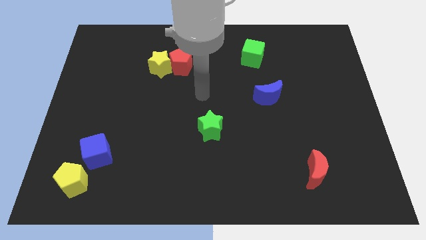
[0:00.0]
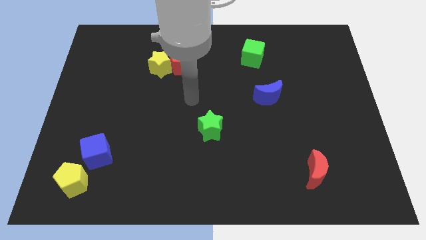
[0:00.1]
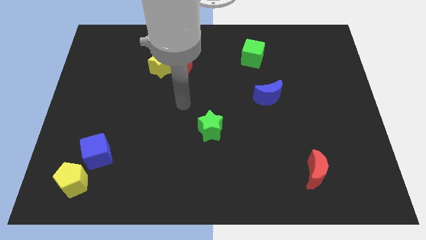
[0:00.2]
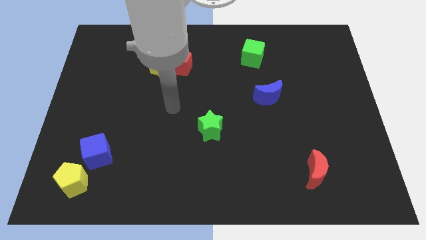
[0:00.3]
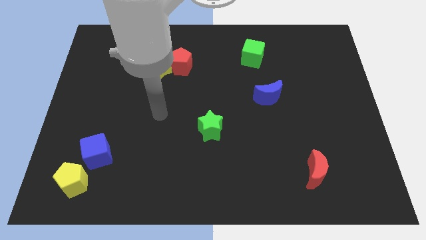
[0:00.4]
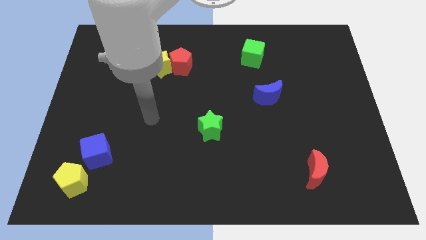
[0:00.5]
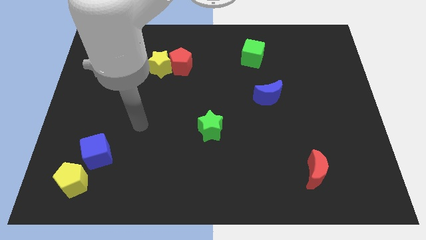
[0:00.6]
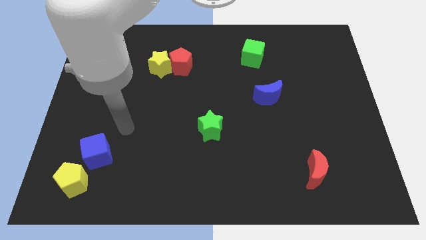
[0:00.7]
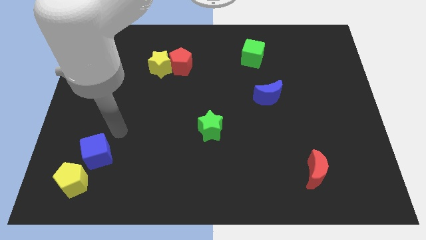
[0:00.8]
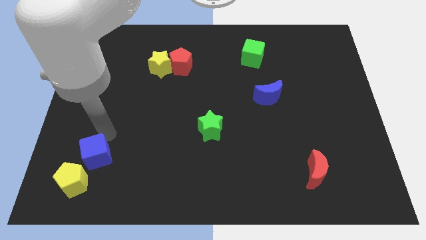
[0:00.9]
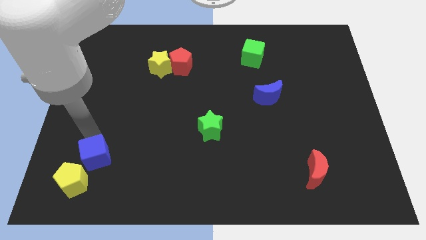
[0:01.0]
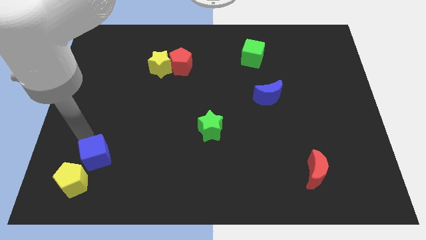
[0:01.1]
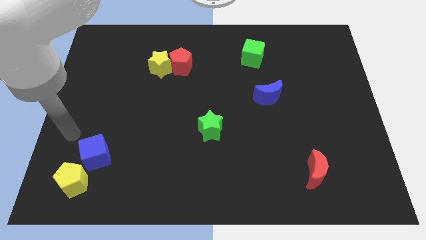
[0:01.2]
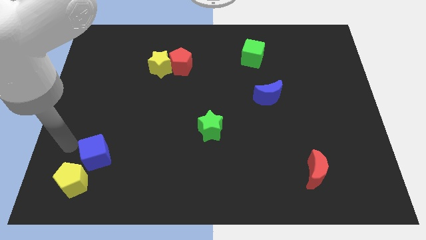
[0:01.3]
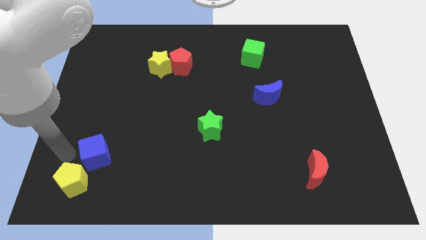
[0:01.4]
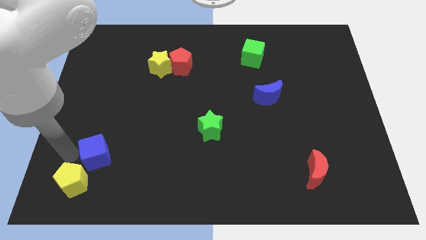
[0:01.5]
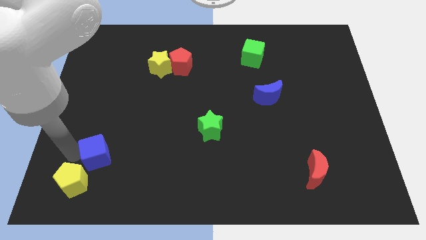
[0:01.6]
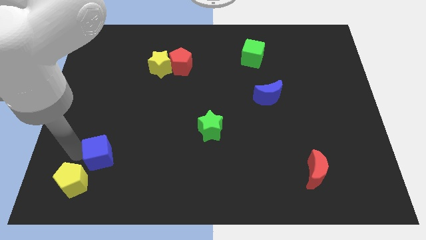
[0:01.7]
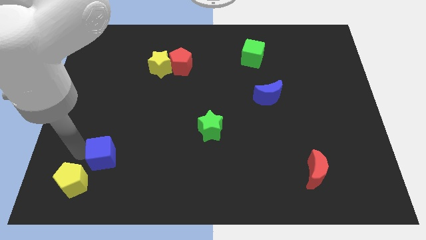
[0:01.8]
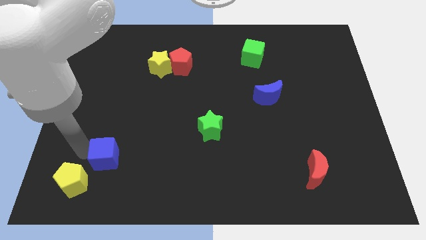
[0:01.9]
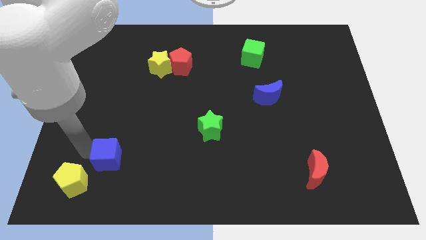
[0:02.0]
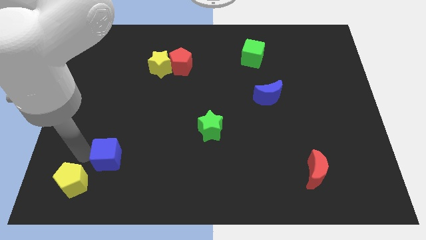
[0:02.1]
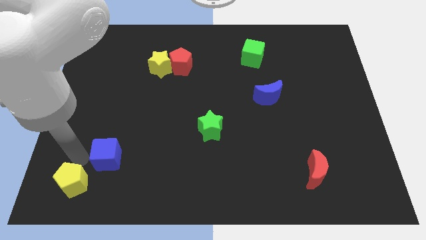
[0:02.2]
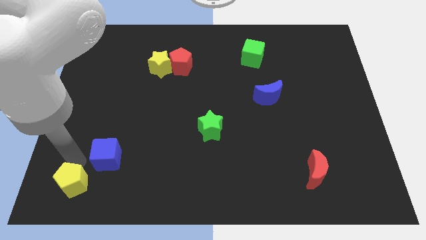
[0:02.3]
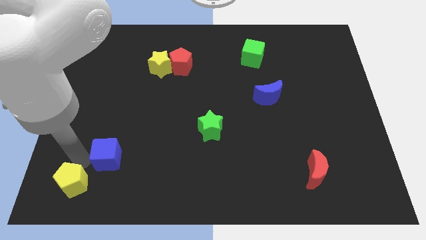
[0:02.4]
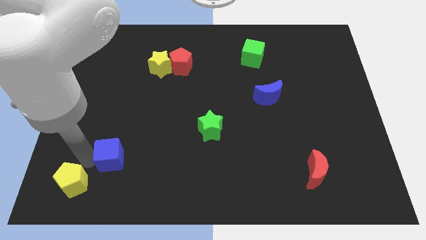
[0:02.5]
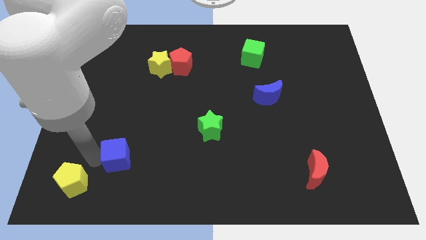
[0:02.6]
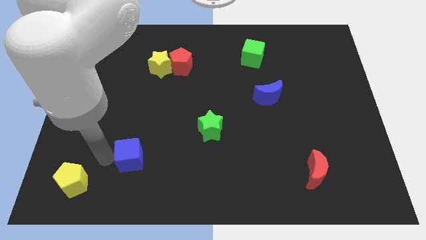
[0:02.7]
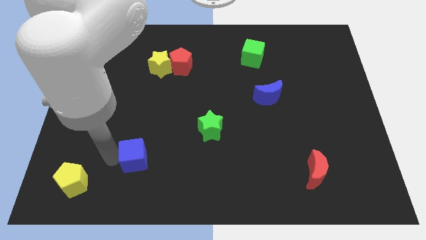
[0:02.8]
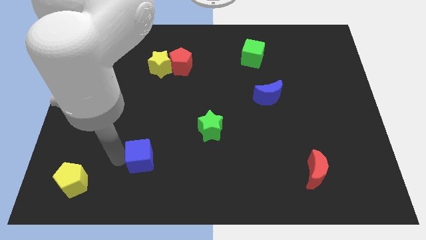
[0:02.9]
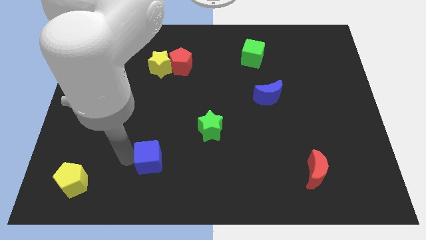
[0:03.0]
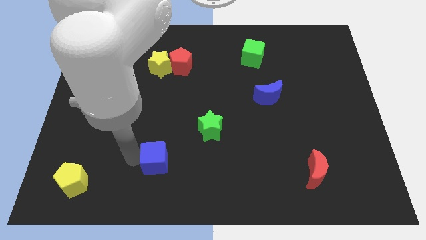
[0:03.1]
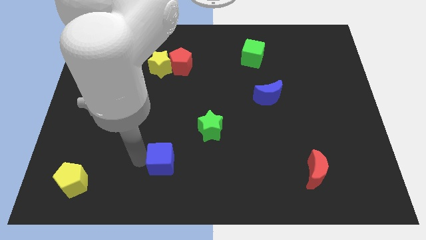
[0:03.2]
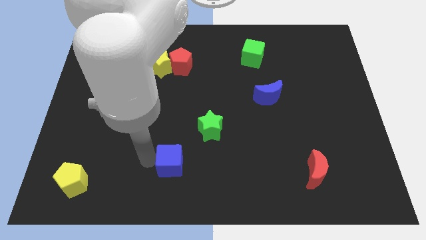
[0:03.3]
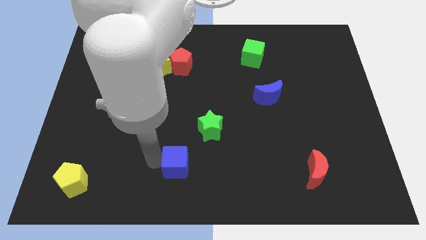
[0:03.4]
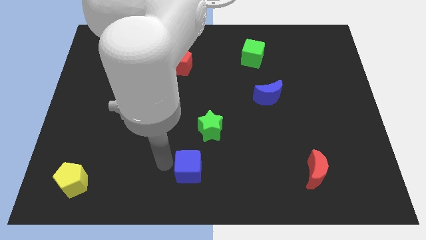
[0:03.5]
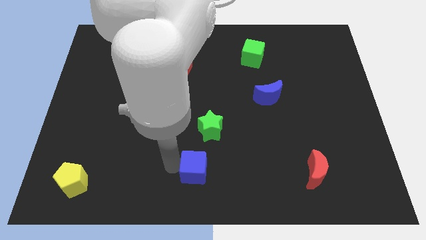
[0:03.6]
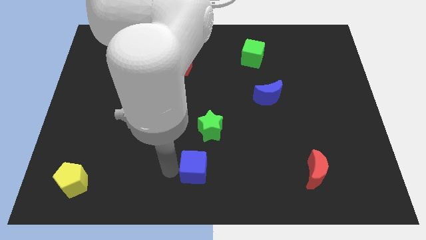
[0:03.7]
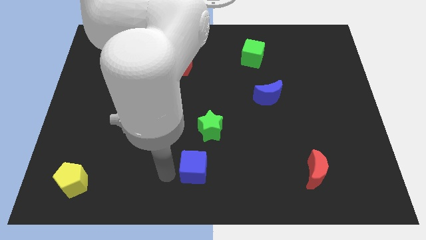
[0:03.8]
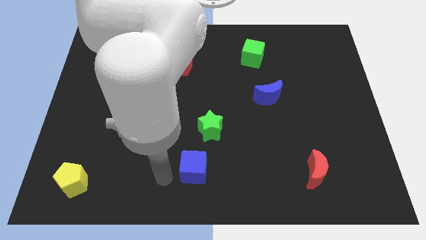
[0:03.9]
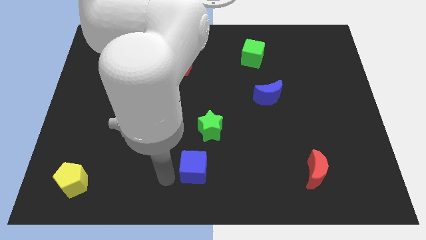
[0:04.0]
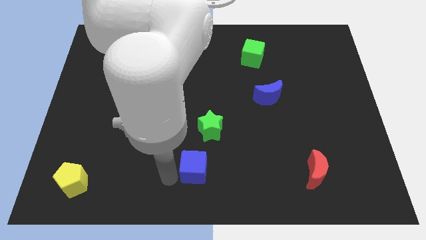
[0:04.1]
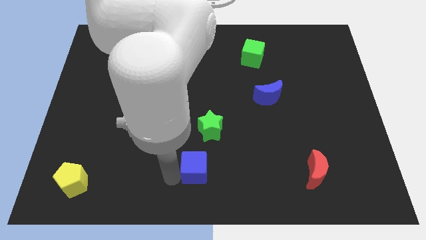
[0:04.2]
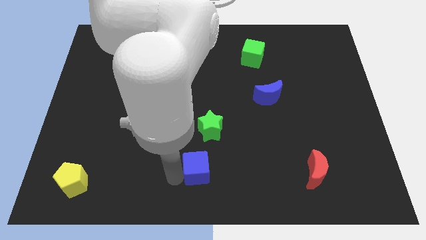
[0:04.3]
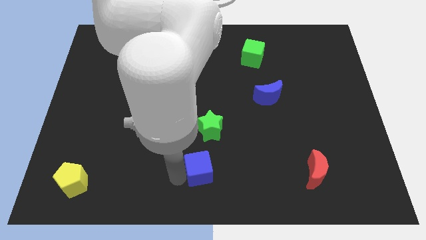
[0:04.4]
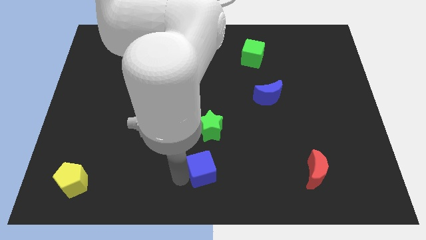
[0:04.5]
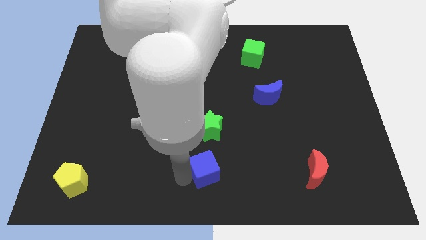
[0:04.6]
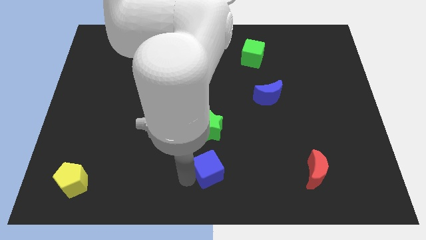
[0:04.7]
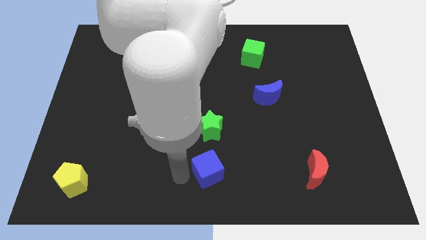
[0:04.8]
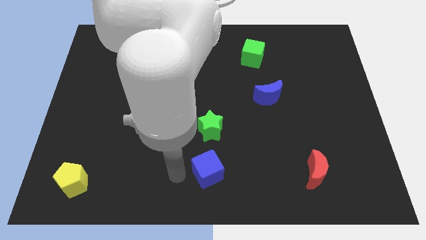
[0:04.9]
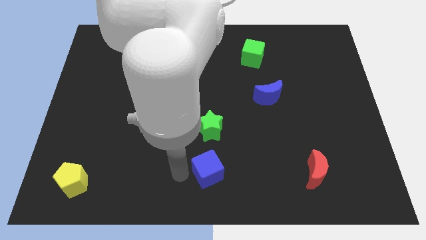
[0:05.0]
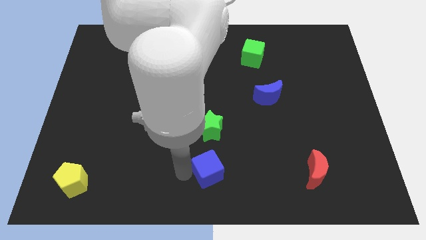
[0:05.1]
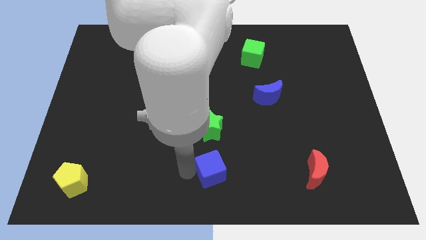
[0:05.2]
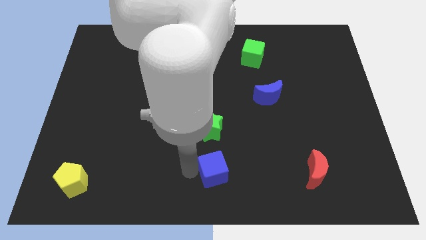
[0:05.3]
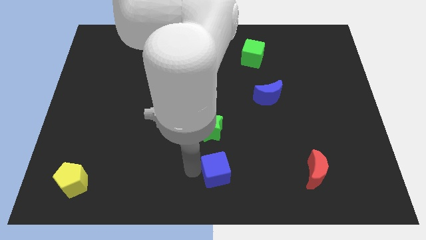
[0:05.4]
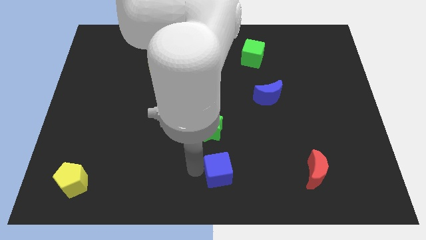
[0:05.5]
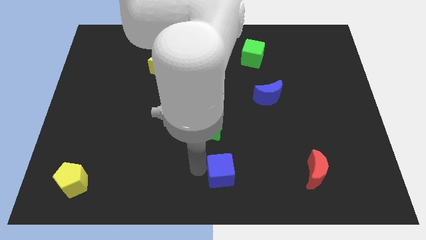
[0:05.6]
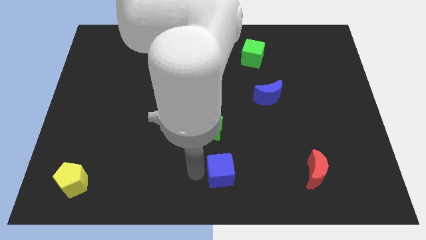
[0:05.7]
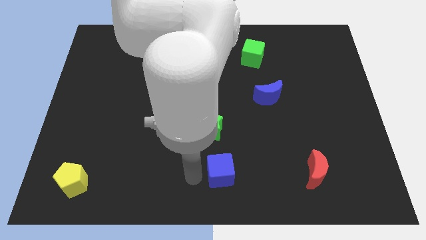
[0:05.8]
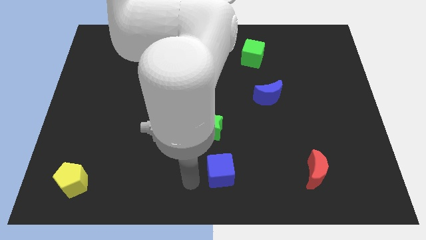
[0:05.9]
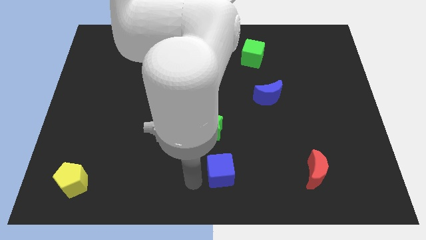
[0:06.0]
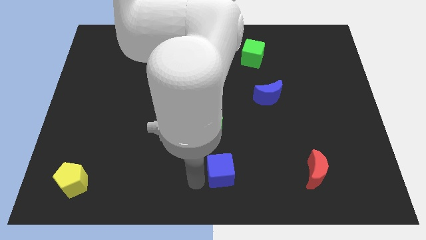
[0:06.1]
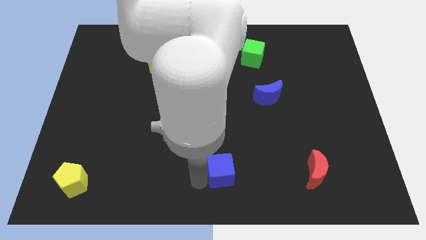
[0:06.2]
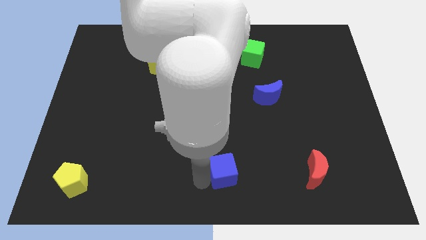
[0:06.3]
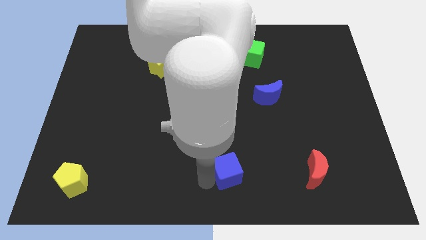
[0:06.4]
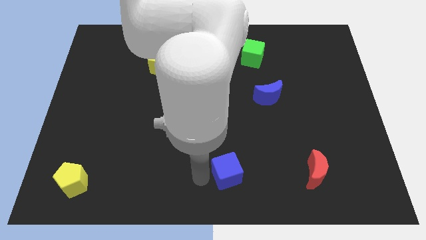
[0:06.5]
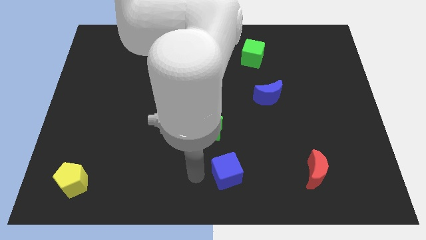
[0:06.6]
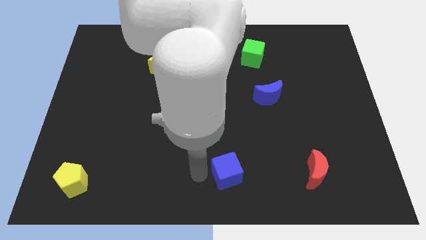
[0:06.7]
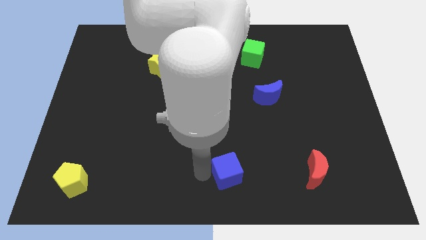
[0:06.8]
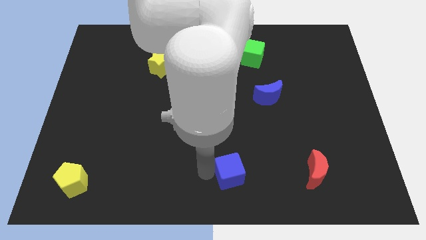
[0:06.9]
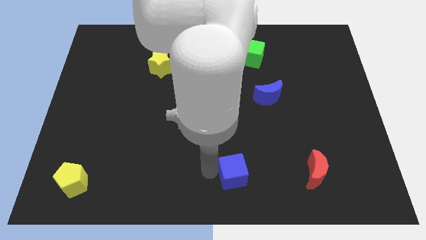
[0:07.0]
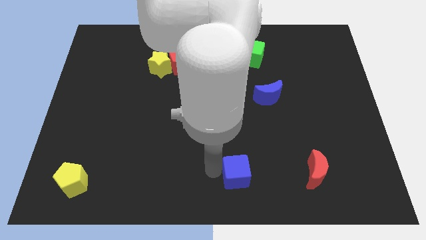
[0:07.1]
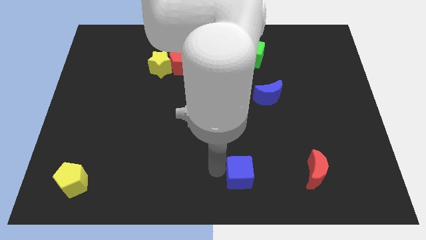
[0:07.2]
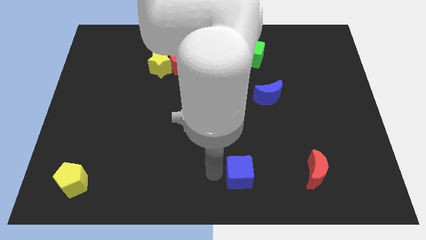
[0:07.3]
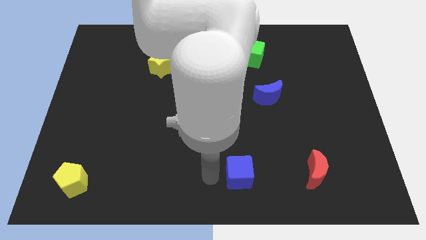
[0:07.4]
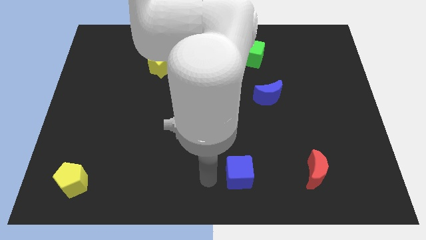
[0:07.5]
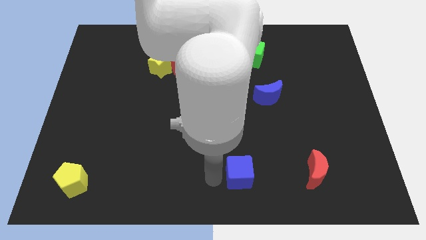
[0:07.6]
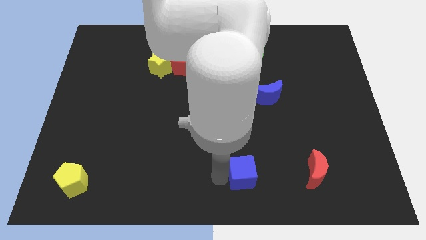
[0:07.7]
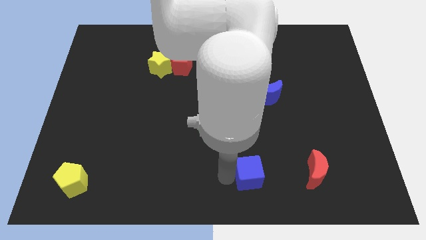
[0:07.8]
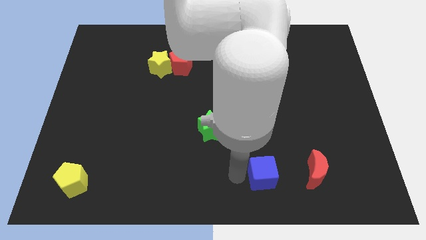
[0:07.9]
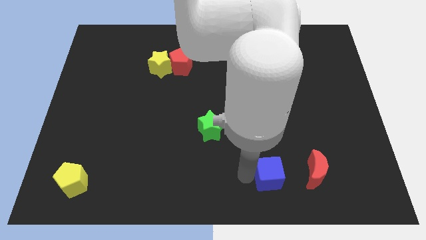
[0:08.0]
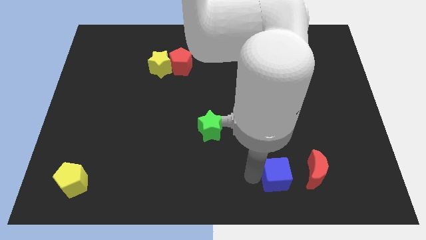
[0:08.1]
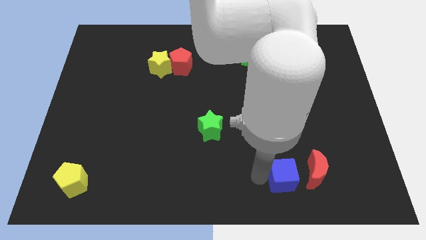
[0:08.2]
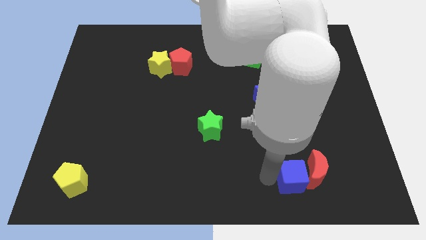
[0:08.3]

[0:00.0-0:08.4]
put the blue cube to the red moon
